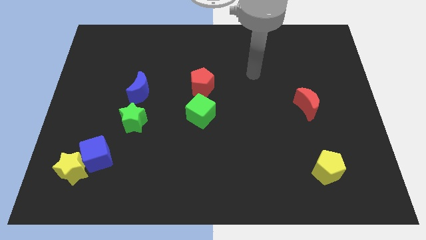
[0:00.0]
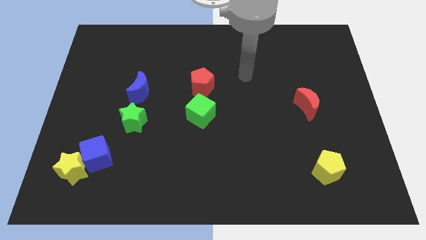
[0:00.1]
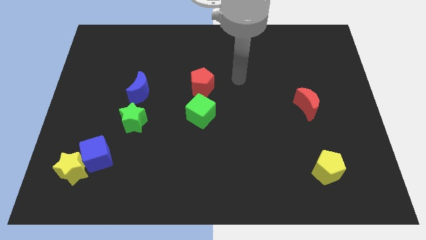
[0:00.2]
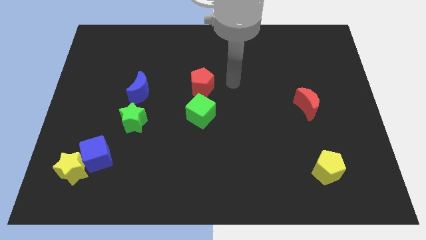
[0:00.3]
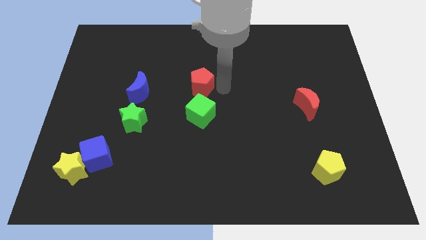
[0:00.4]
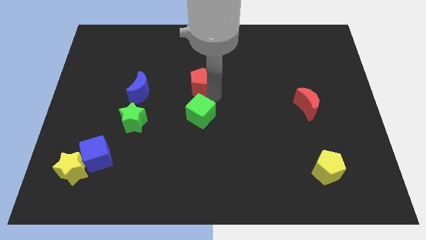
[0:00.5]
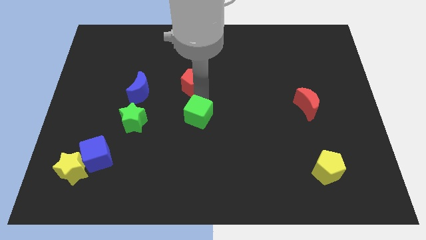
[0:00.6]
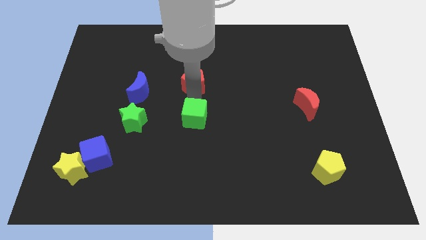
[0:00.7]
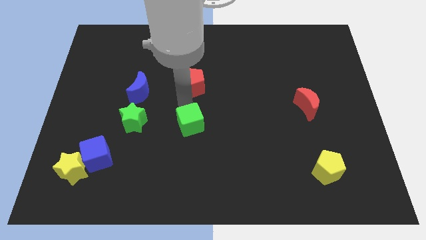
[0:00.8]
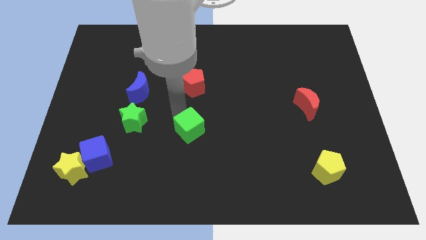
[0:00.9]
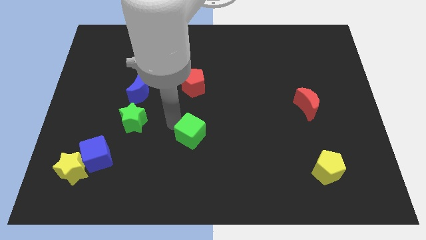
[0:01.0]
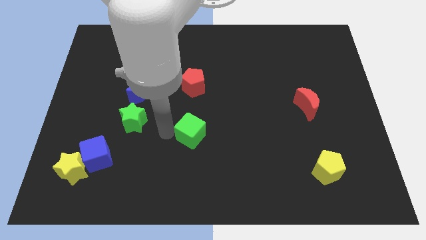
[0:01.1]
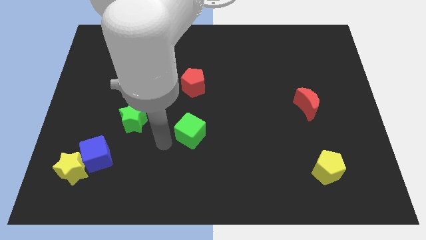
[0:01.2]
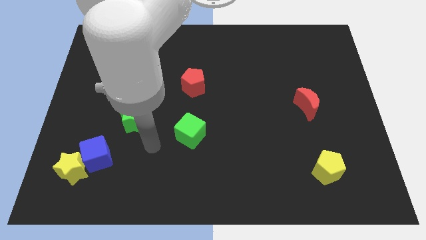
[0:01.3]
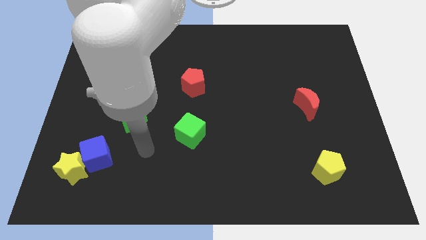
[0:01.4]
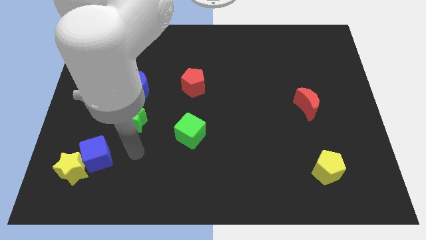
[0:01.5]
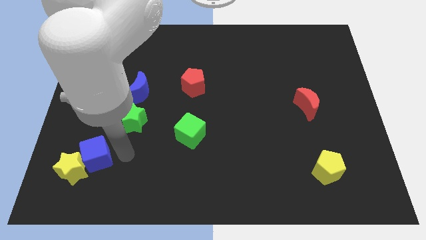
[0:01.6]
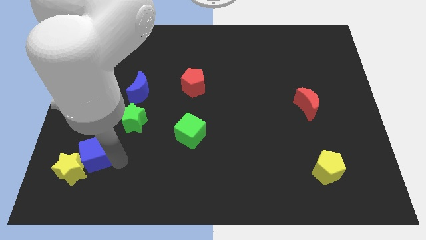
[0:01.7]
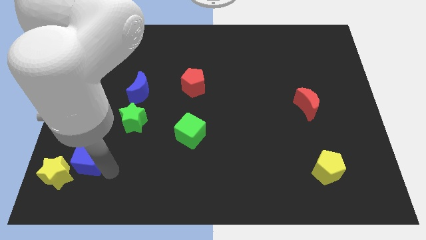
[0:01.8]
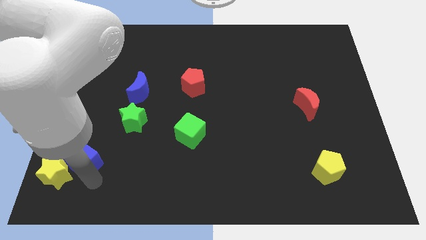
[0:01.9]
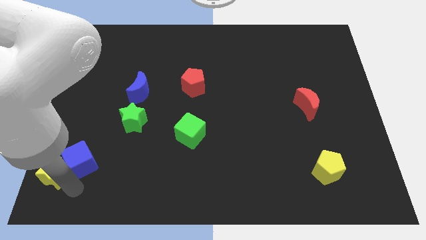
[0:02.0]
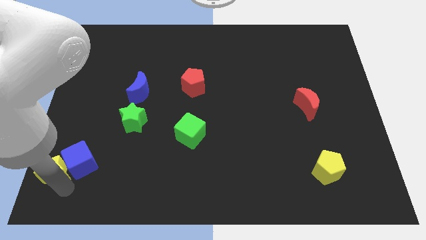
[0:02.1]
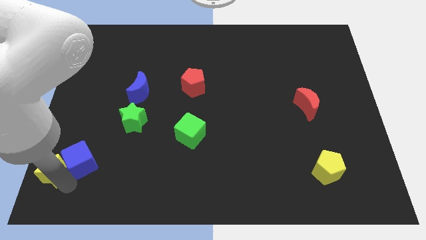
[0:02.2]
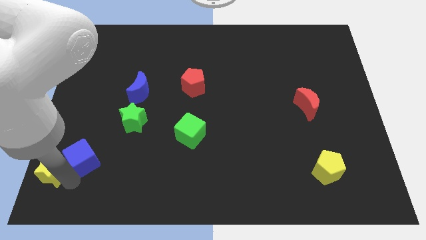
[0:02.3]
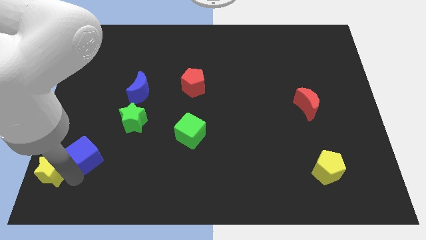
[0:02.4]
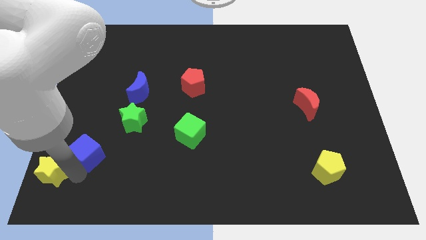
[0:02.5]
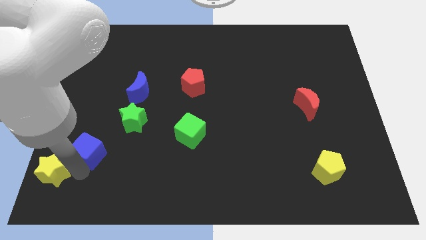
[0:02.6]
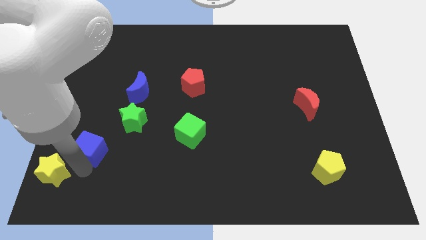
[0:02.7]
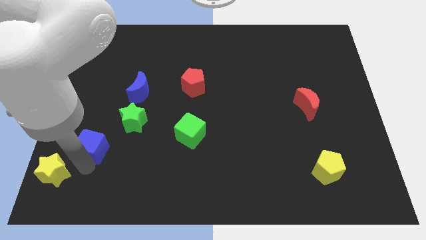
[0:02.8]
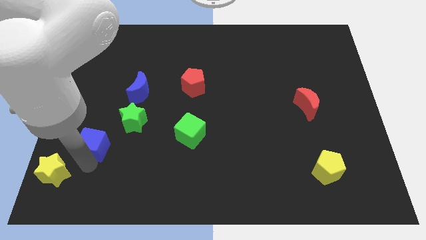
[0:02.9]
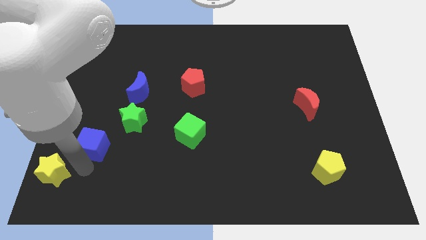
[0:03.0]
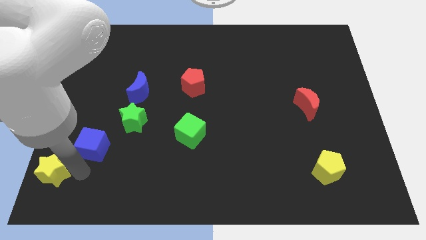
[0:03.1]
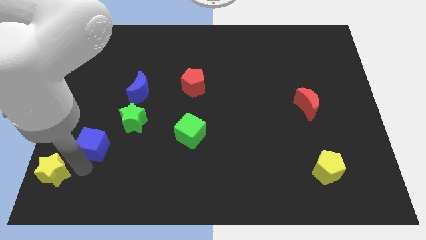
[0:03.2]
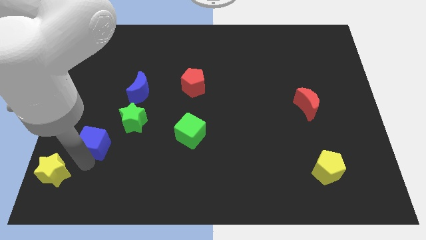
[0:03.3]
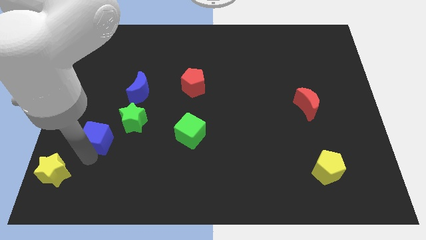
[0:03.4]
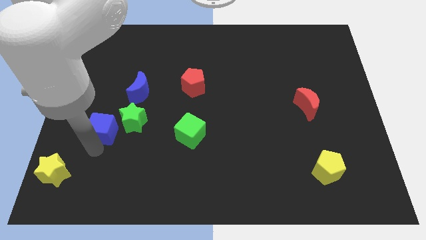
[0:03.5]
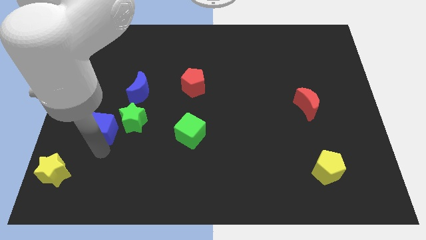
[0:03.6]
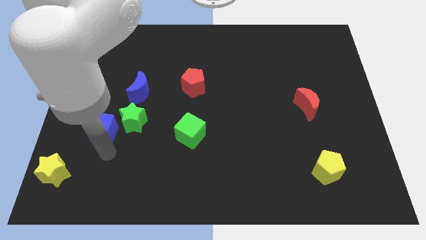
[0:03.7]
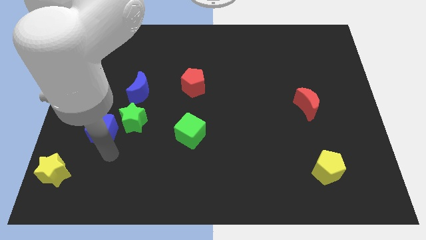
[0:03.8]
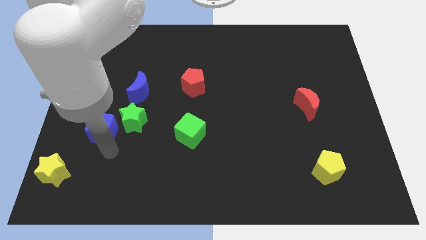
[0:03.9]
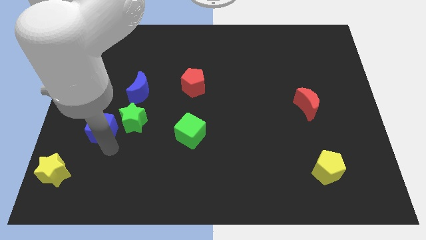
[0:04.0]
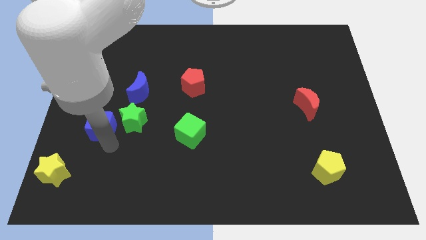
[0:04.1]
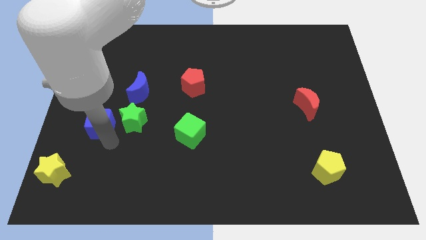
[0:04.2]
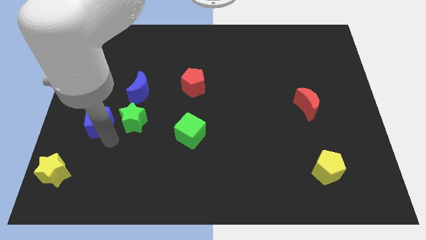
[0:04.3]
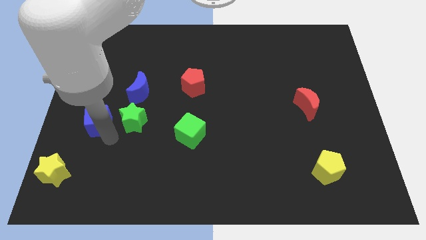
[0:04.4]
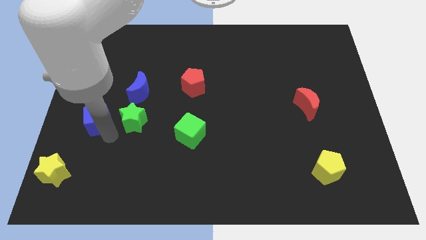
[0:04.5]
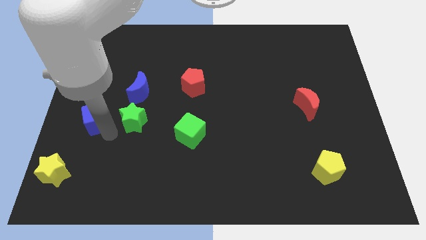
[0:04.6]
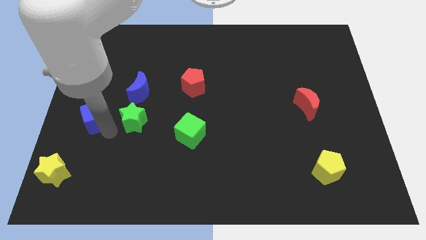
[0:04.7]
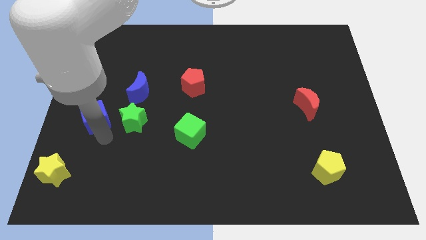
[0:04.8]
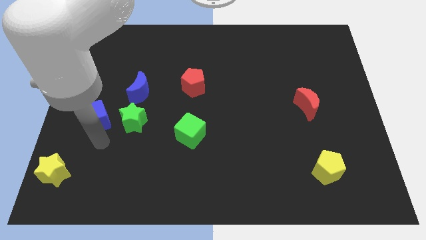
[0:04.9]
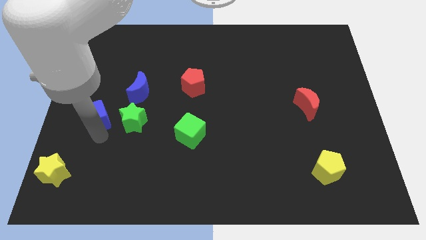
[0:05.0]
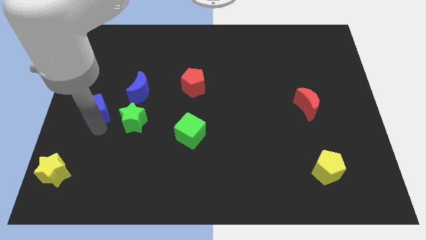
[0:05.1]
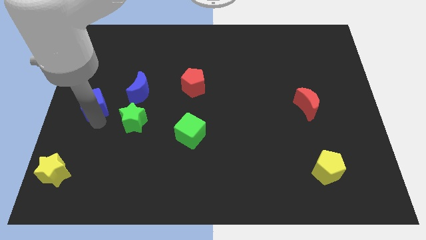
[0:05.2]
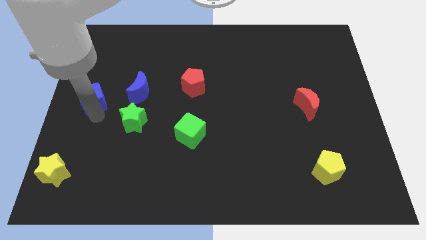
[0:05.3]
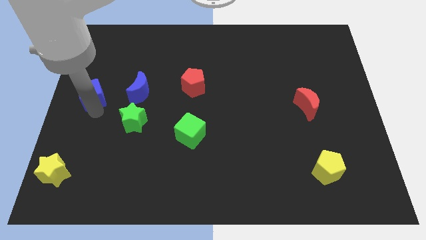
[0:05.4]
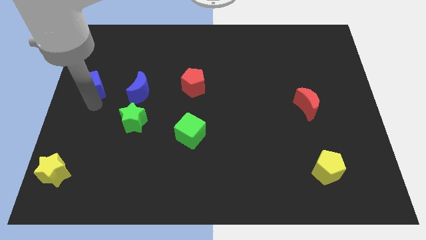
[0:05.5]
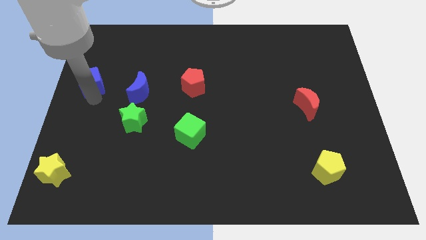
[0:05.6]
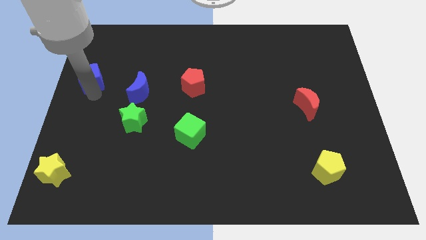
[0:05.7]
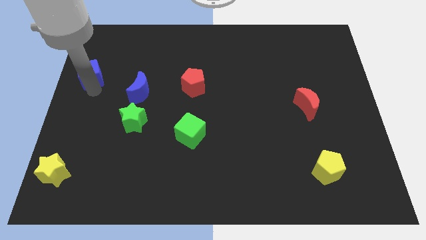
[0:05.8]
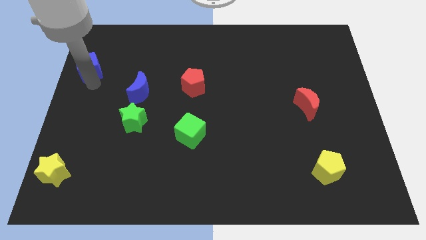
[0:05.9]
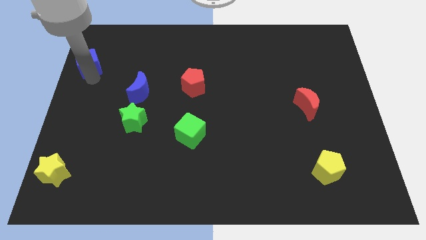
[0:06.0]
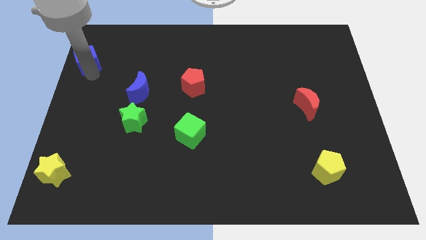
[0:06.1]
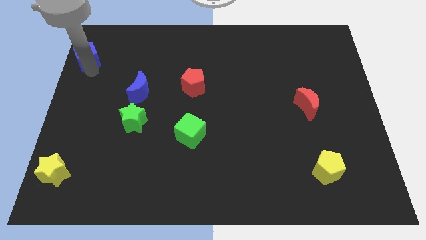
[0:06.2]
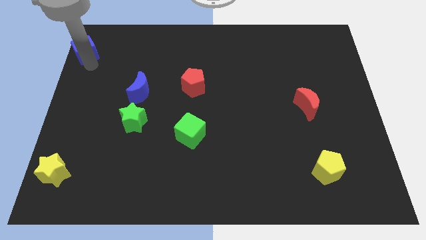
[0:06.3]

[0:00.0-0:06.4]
move the blue cube to the top left
